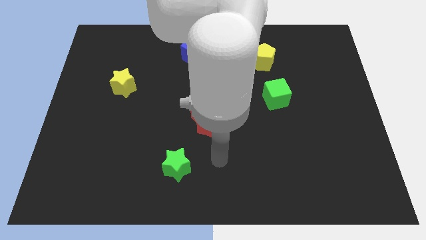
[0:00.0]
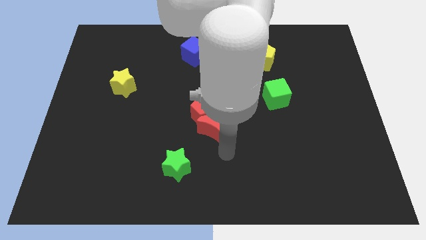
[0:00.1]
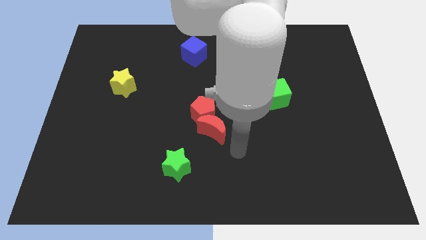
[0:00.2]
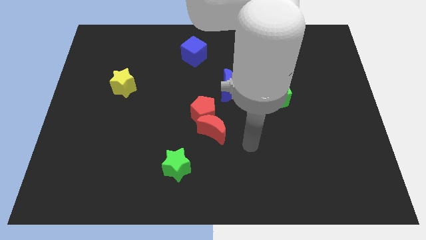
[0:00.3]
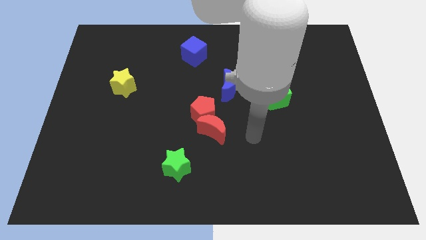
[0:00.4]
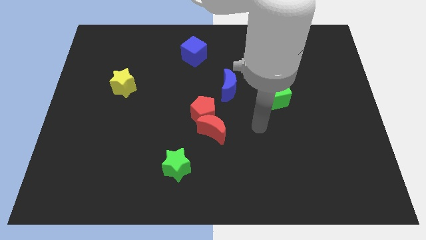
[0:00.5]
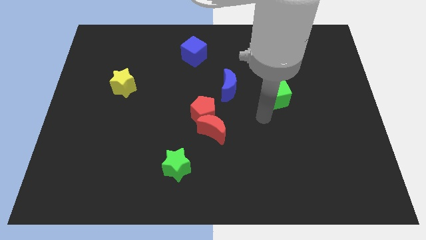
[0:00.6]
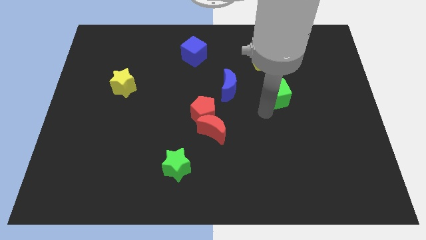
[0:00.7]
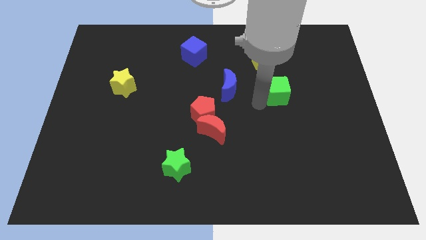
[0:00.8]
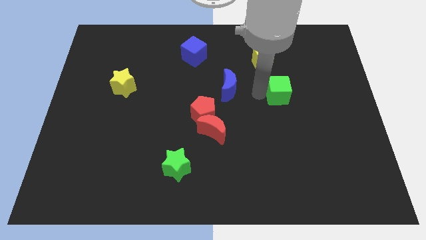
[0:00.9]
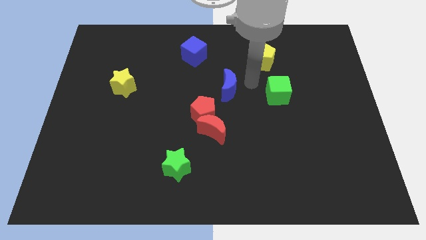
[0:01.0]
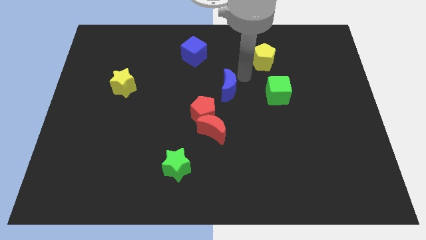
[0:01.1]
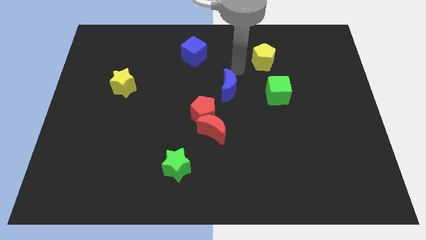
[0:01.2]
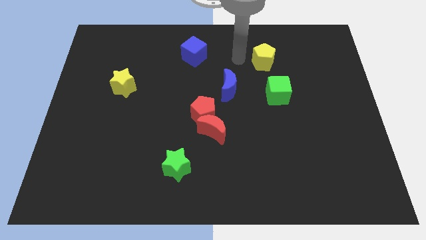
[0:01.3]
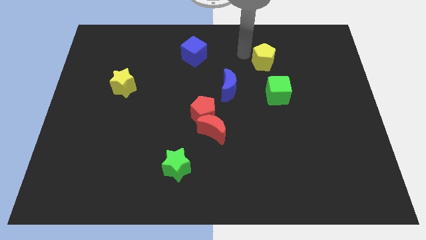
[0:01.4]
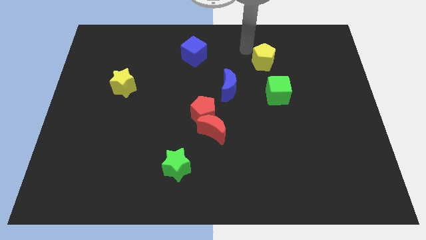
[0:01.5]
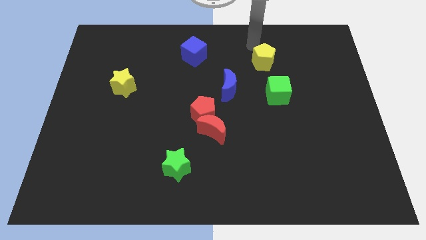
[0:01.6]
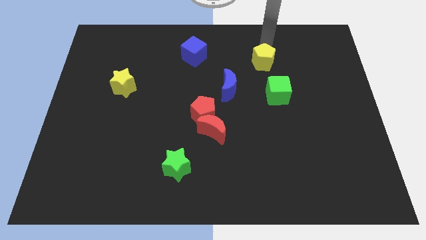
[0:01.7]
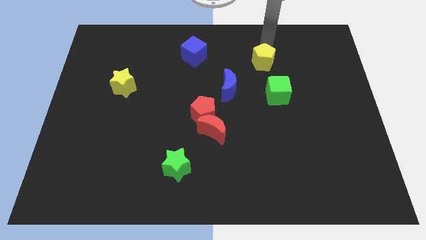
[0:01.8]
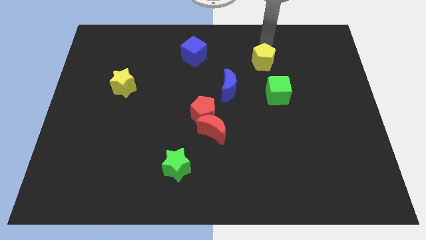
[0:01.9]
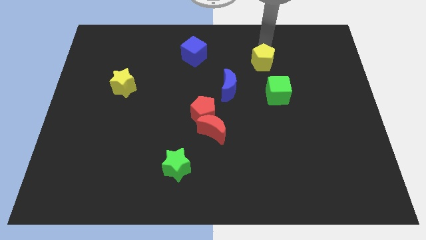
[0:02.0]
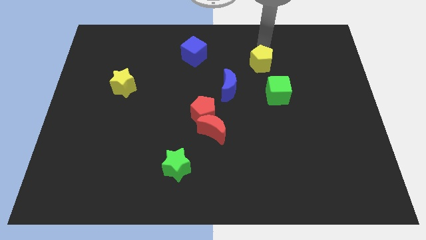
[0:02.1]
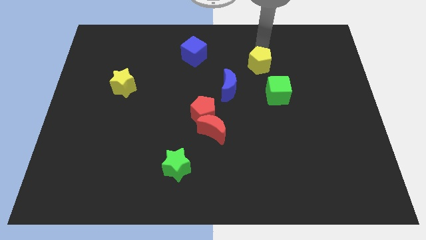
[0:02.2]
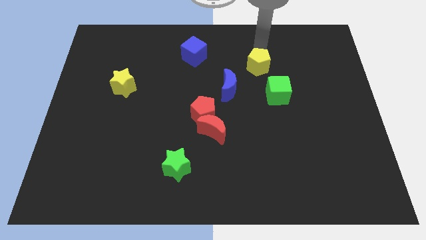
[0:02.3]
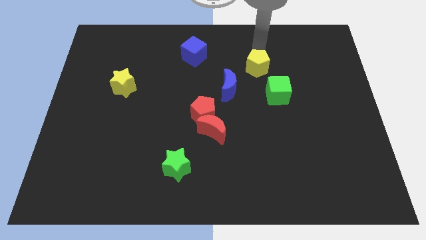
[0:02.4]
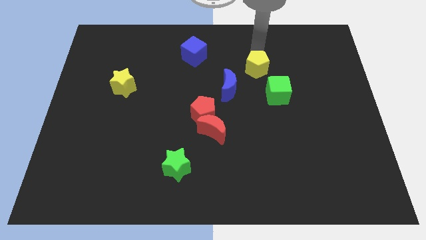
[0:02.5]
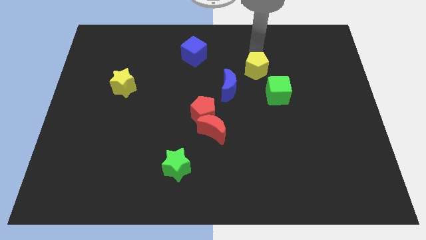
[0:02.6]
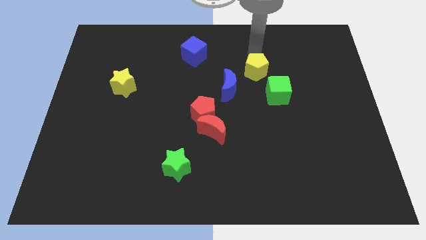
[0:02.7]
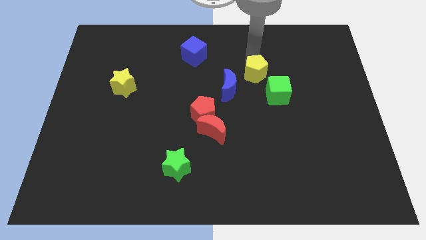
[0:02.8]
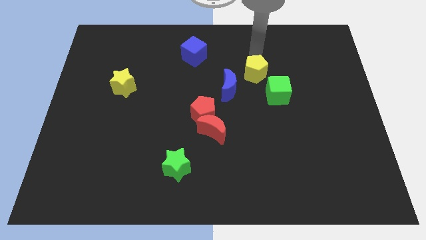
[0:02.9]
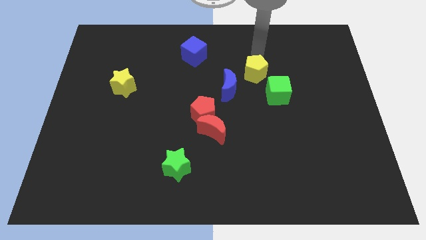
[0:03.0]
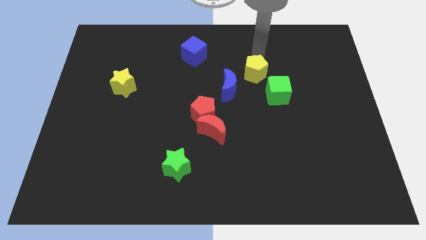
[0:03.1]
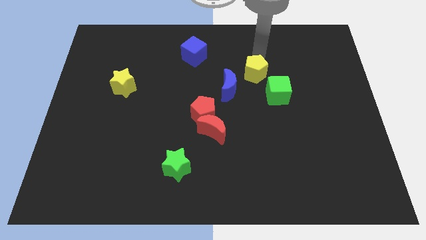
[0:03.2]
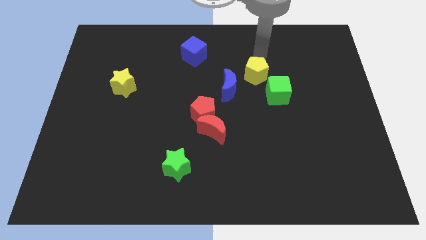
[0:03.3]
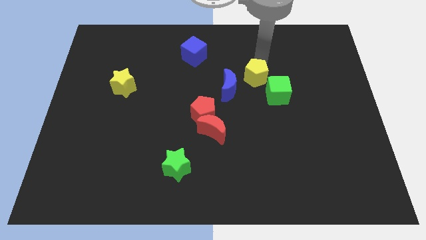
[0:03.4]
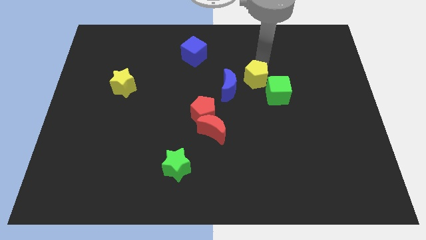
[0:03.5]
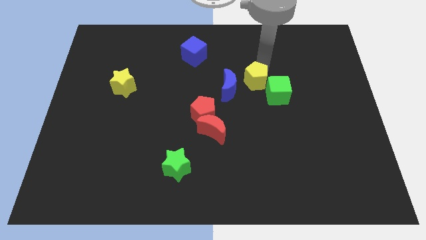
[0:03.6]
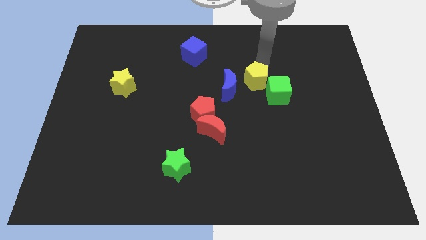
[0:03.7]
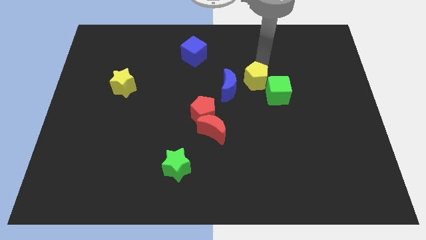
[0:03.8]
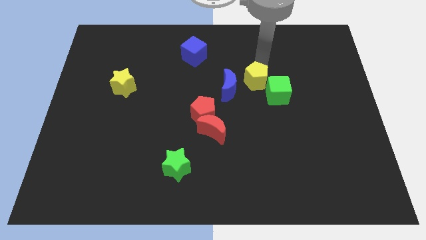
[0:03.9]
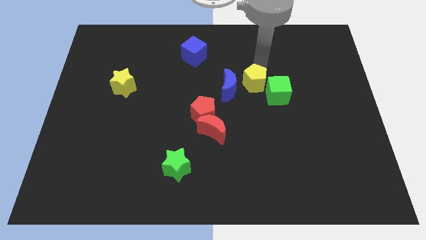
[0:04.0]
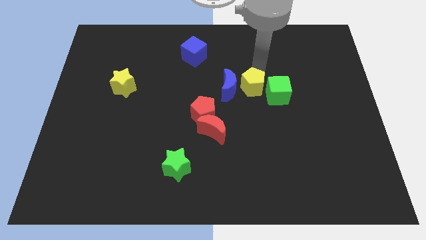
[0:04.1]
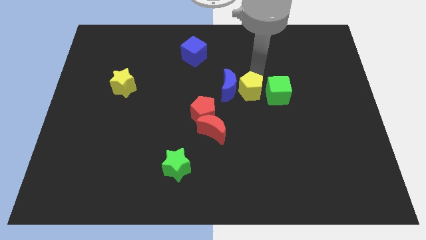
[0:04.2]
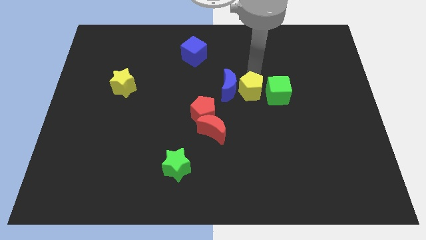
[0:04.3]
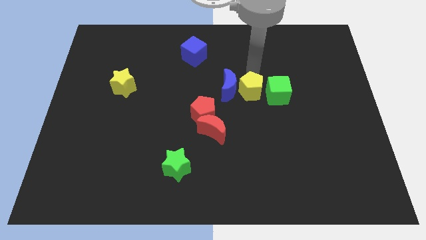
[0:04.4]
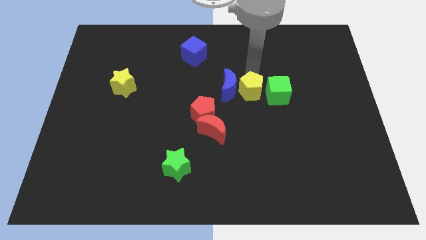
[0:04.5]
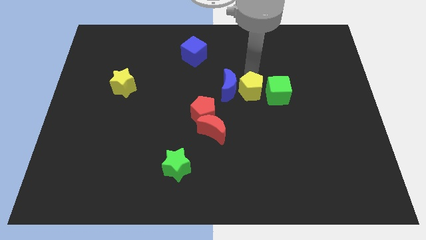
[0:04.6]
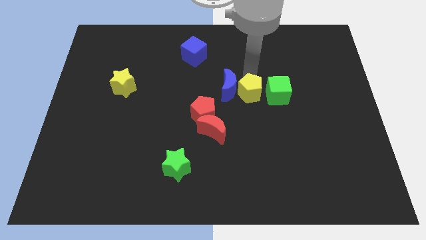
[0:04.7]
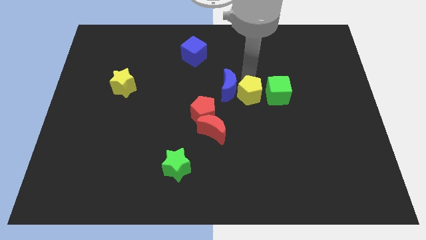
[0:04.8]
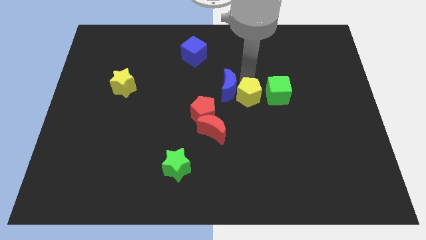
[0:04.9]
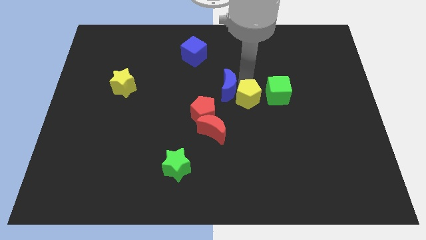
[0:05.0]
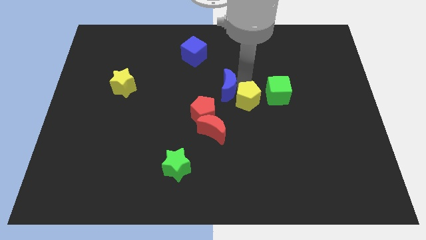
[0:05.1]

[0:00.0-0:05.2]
move the yellow pentagon to the right side of the red pentagon

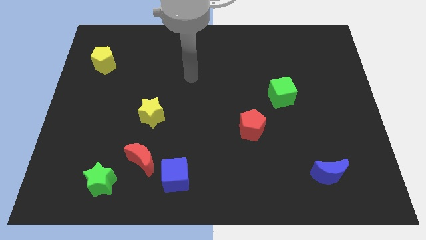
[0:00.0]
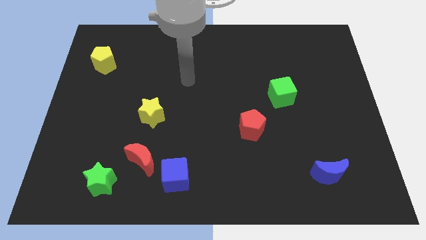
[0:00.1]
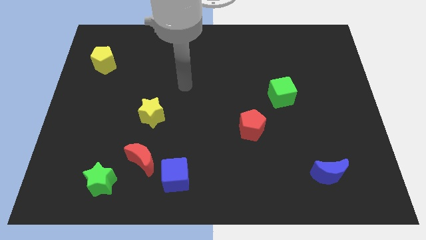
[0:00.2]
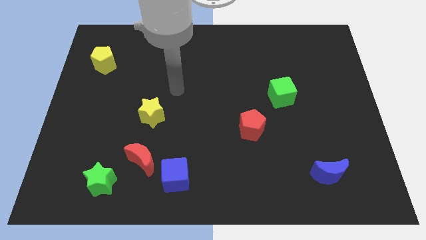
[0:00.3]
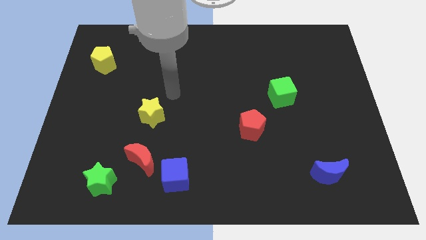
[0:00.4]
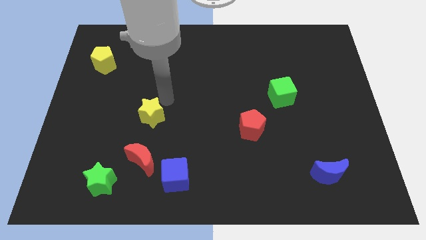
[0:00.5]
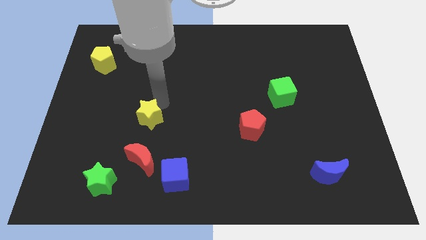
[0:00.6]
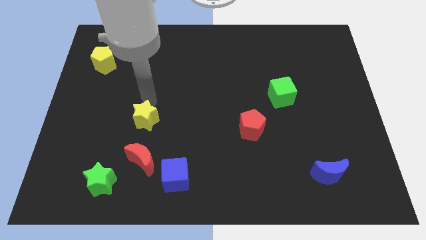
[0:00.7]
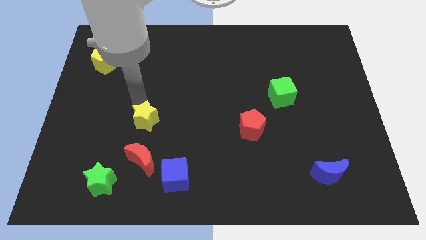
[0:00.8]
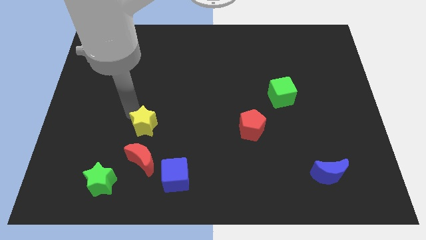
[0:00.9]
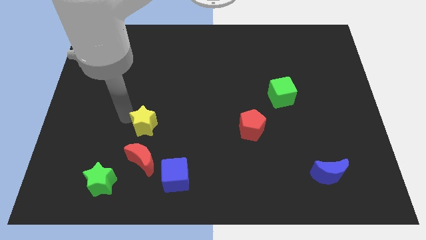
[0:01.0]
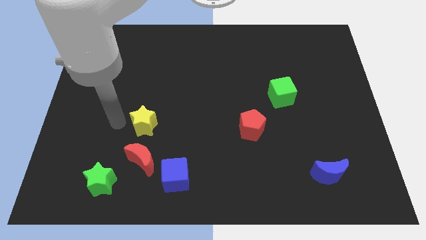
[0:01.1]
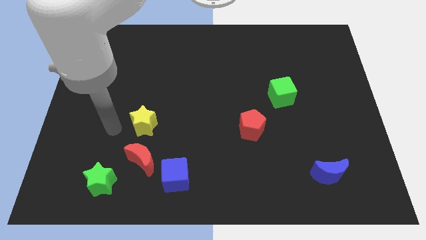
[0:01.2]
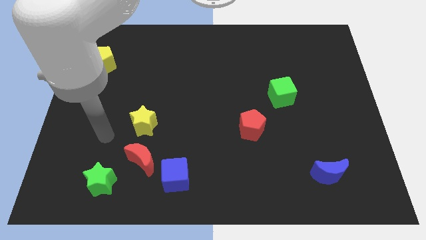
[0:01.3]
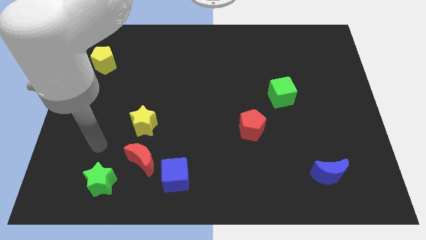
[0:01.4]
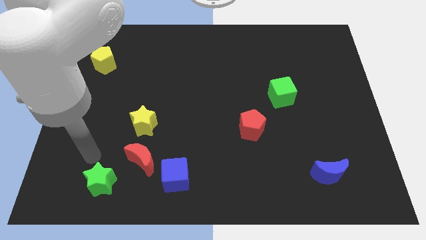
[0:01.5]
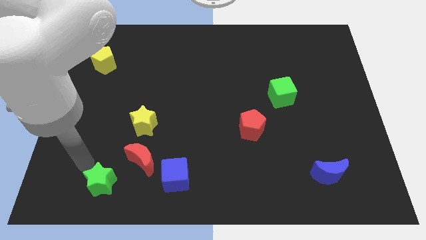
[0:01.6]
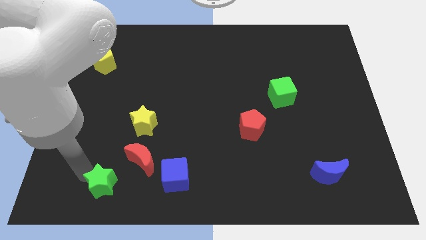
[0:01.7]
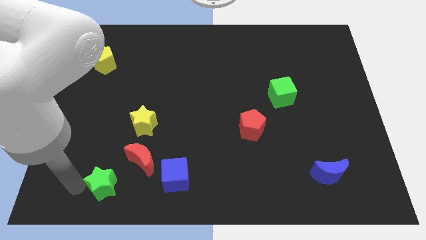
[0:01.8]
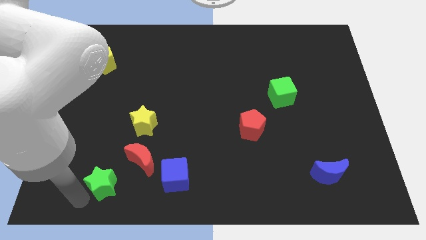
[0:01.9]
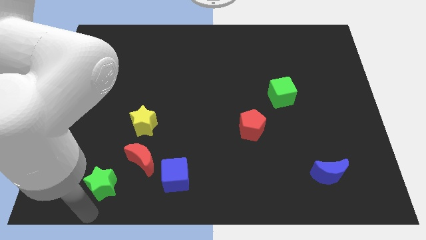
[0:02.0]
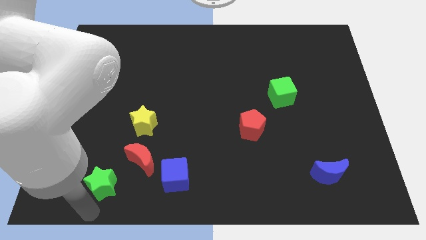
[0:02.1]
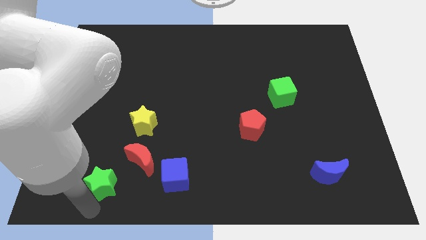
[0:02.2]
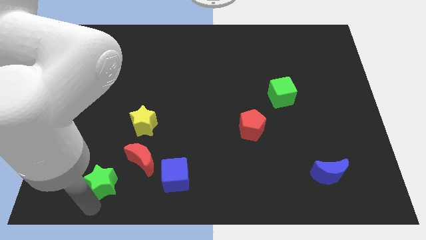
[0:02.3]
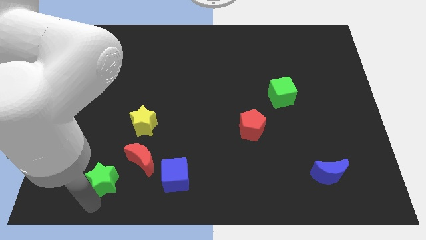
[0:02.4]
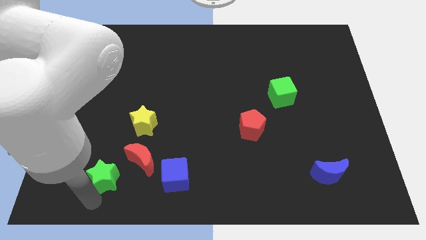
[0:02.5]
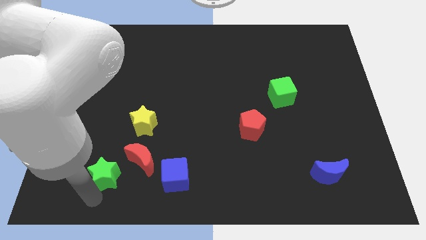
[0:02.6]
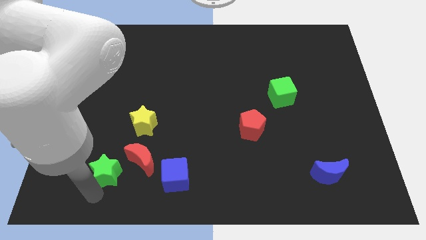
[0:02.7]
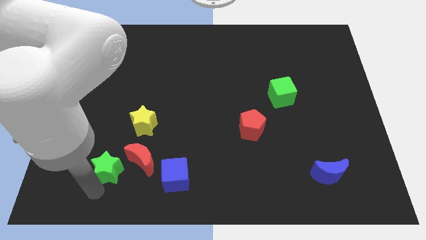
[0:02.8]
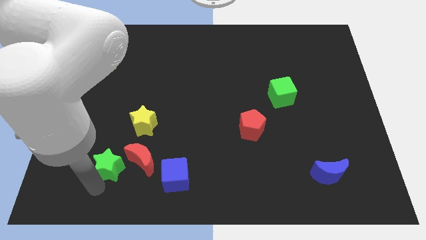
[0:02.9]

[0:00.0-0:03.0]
push the green star diagonally down and to the left of the yellow star

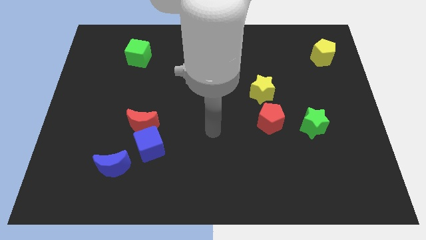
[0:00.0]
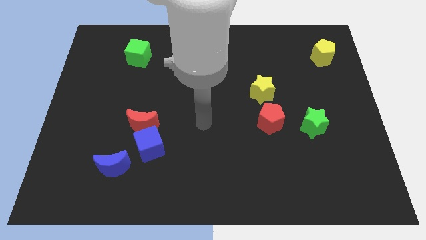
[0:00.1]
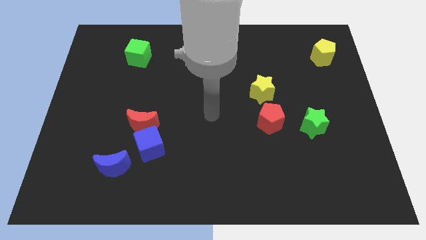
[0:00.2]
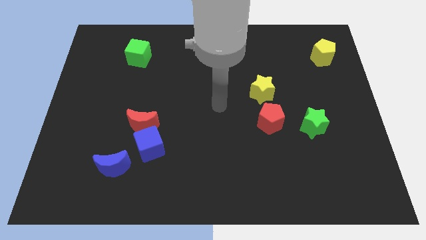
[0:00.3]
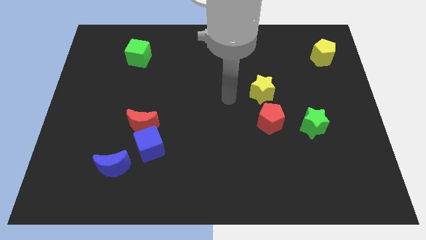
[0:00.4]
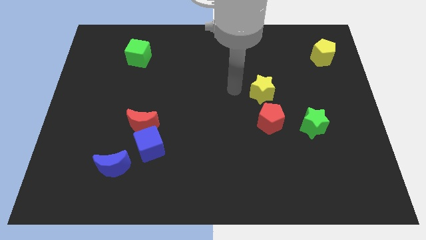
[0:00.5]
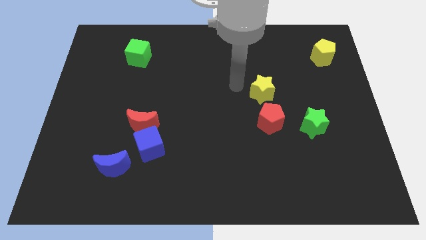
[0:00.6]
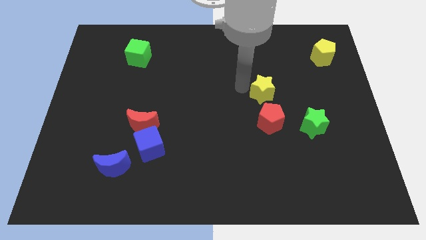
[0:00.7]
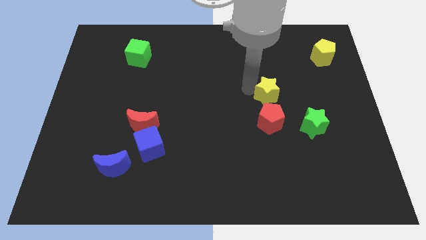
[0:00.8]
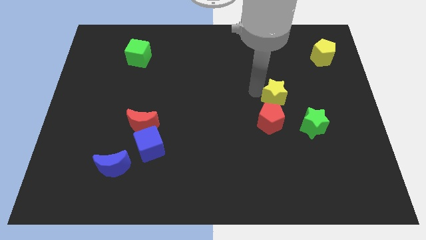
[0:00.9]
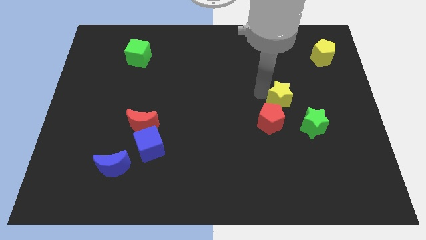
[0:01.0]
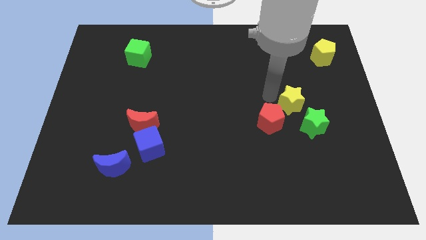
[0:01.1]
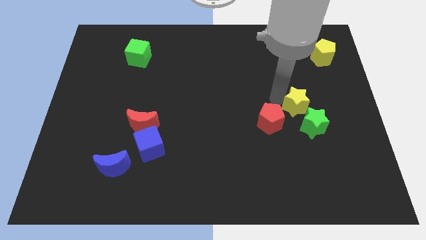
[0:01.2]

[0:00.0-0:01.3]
put the yellow star to the right of the red pentagon
